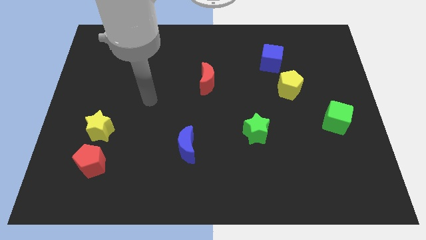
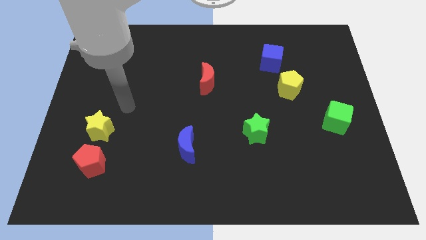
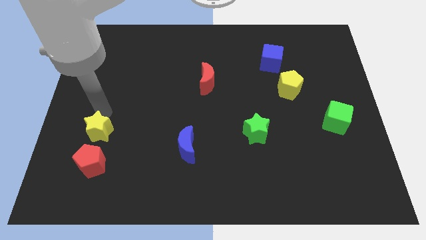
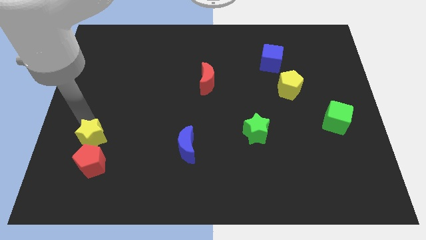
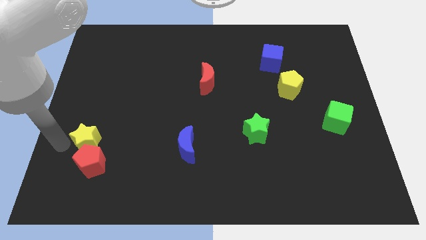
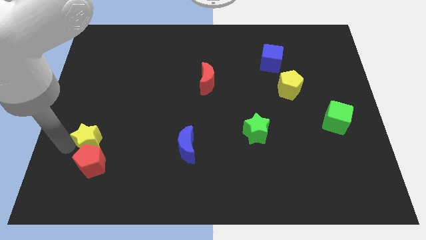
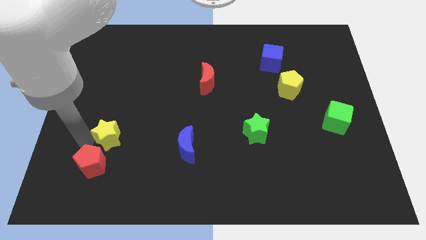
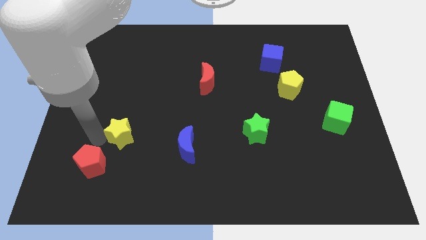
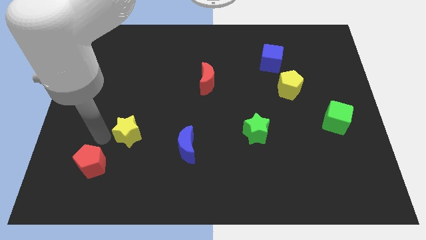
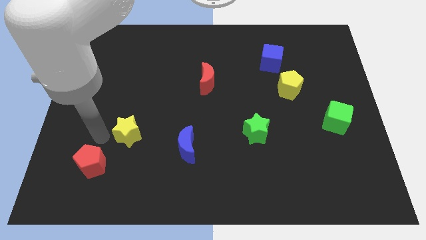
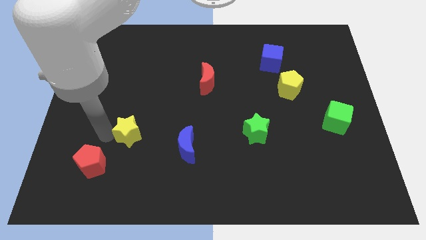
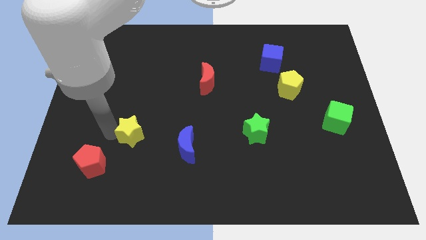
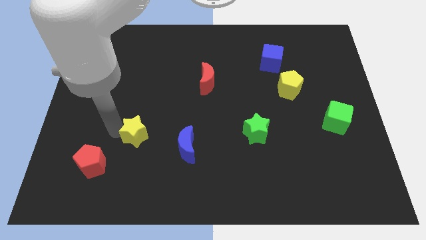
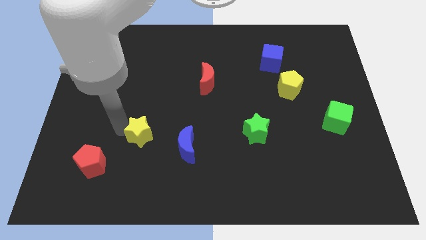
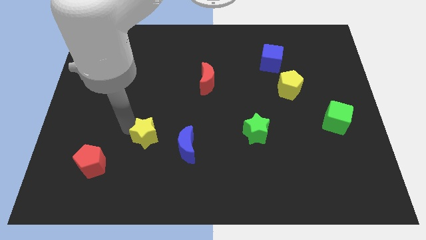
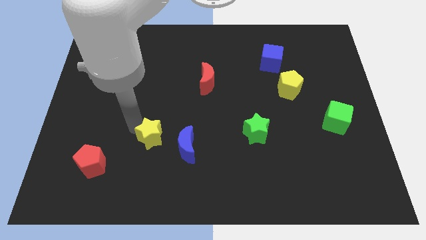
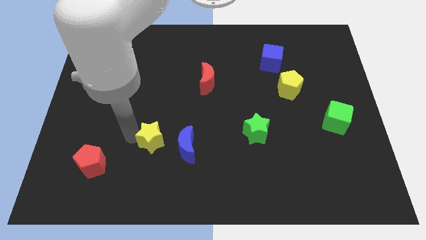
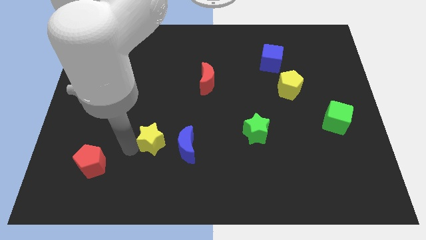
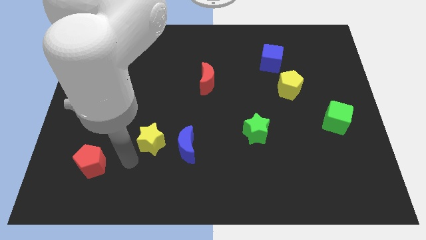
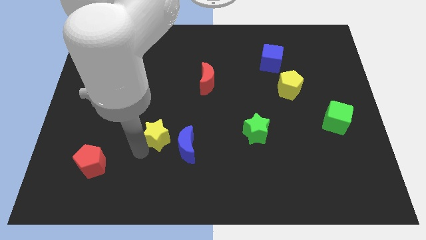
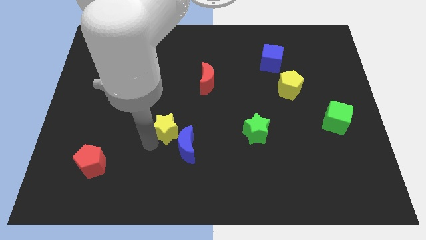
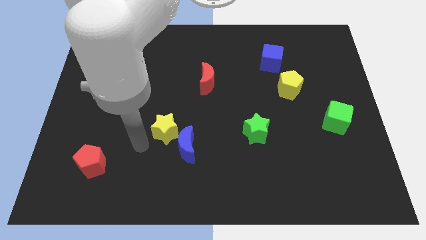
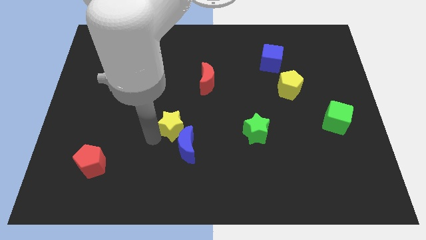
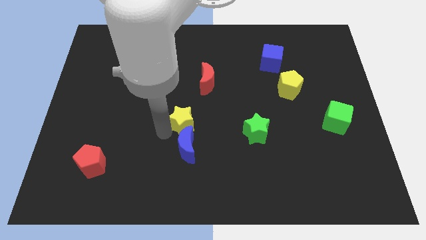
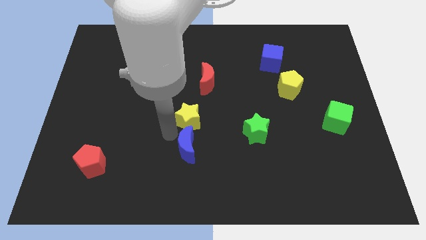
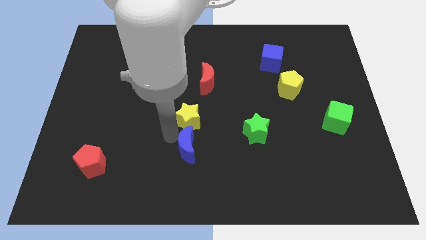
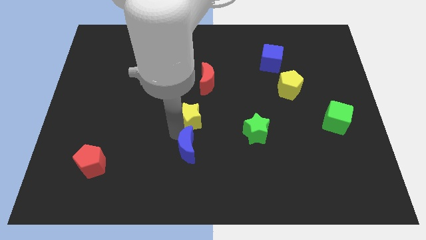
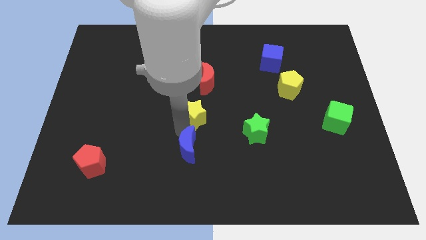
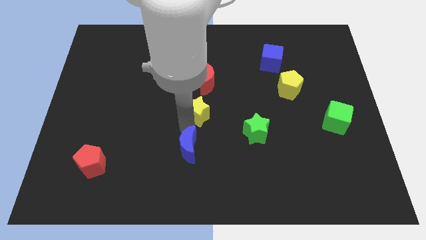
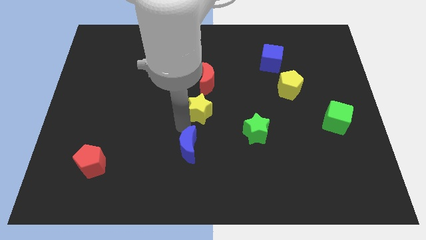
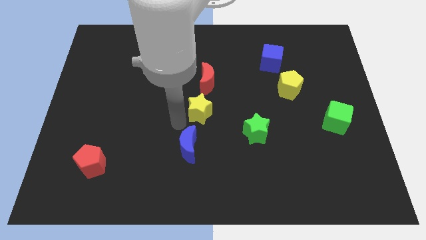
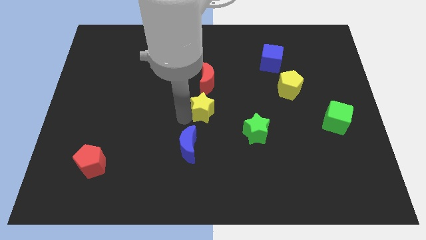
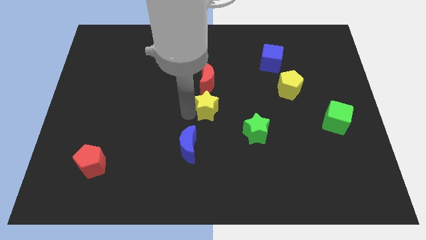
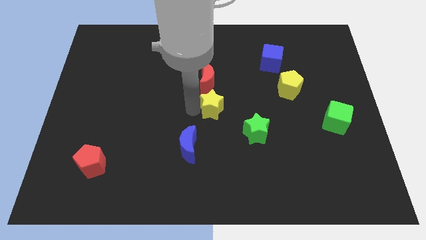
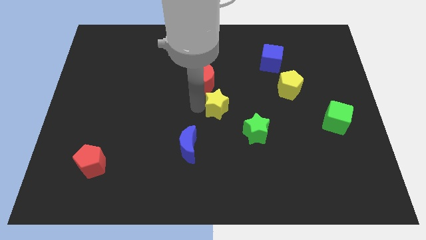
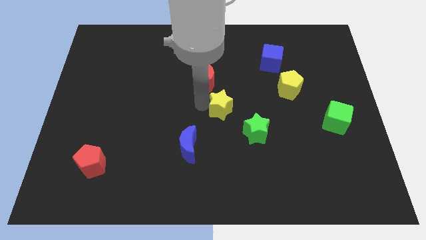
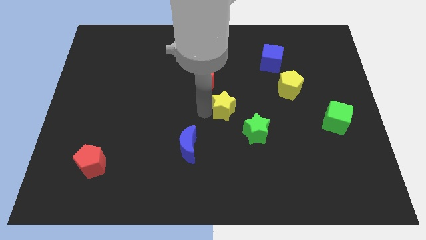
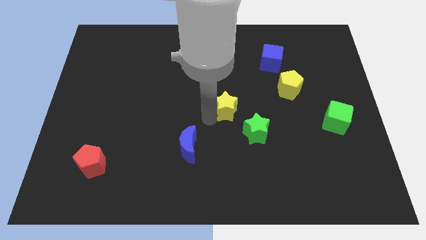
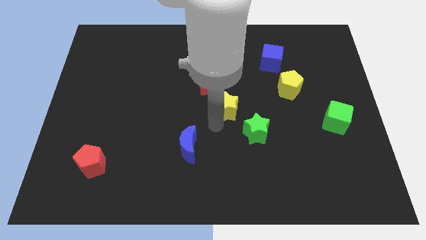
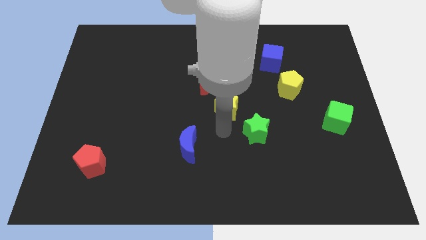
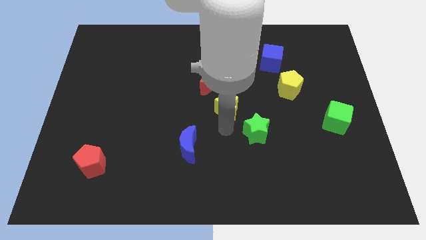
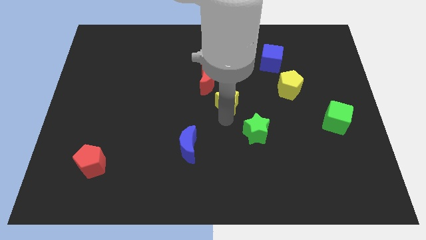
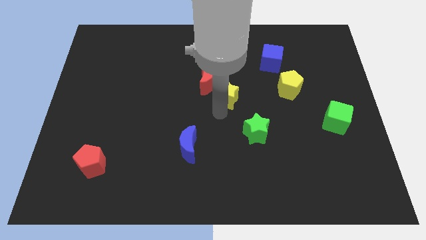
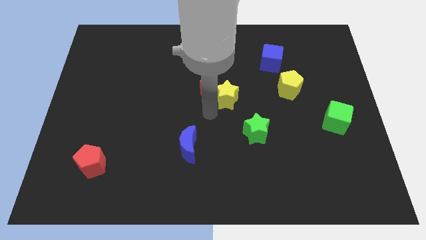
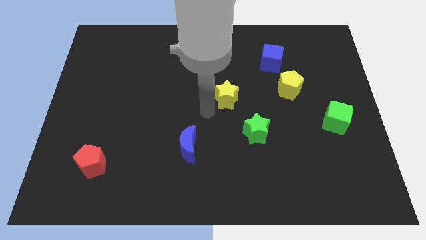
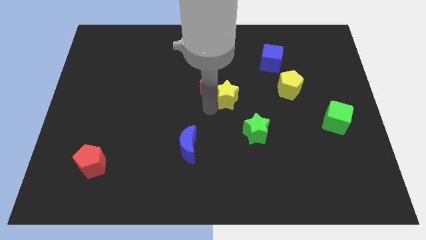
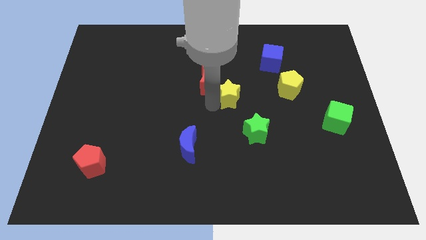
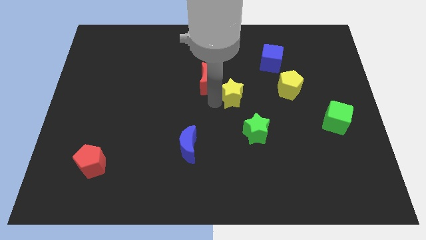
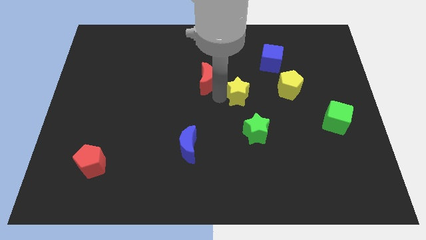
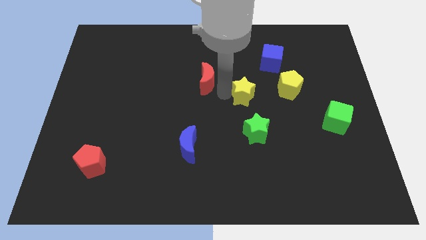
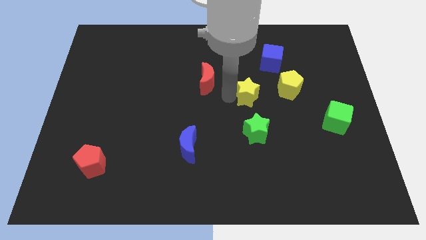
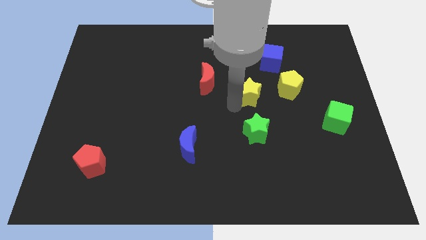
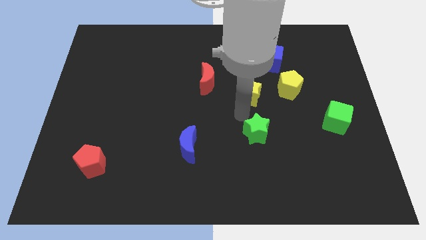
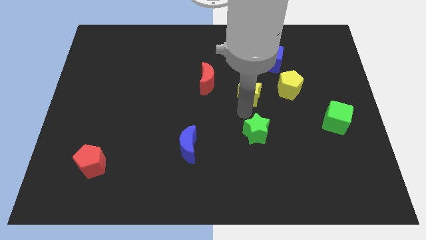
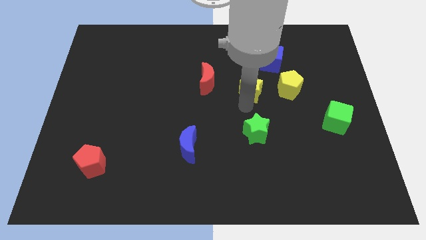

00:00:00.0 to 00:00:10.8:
put the yellow star to the bottom left side of the blue cube

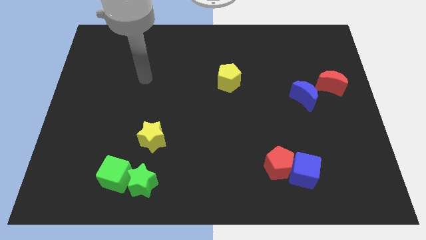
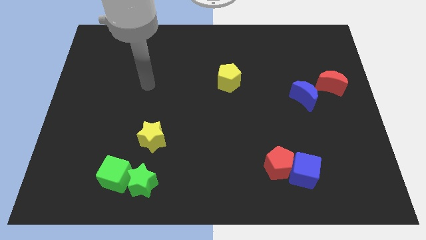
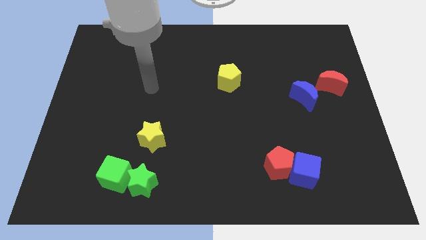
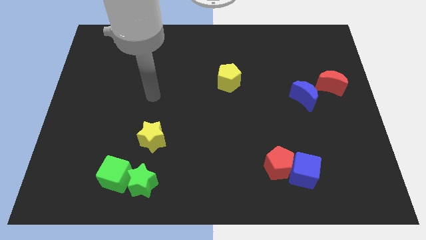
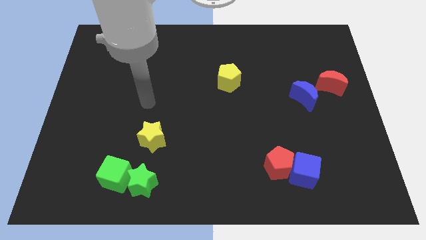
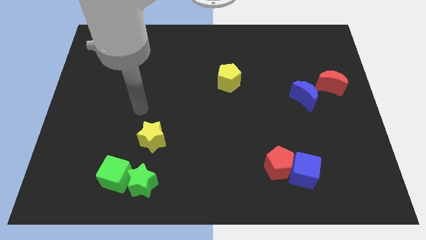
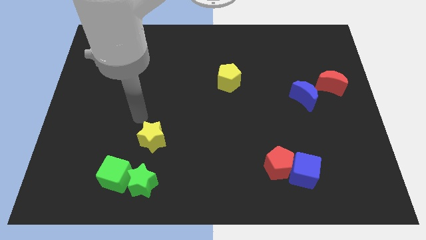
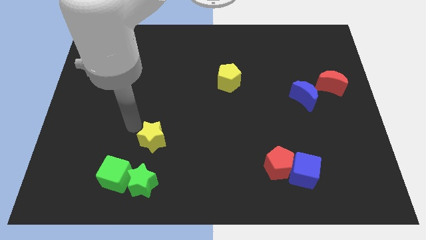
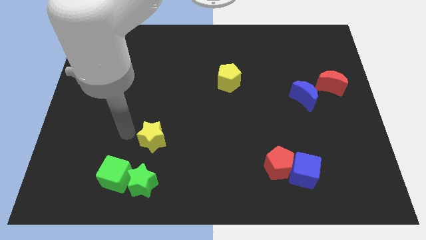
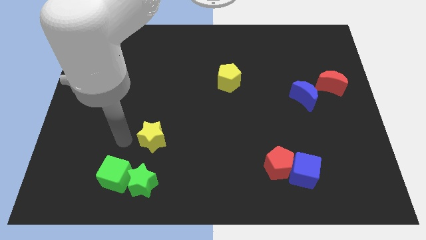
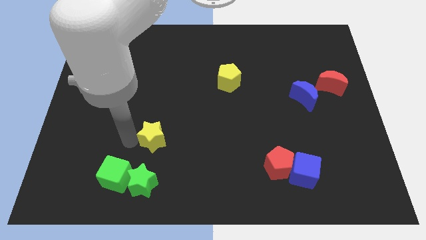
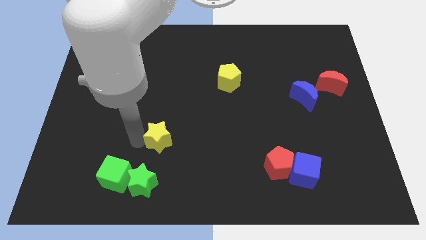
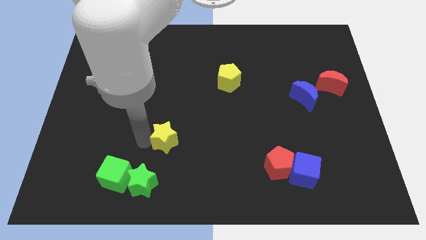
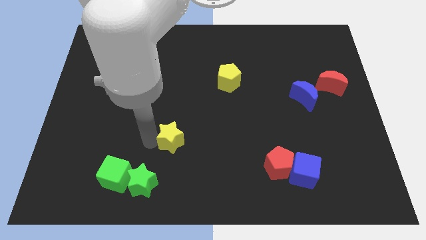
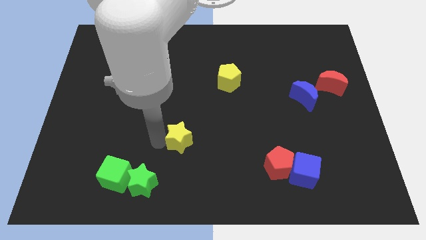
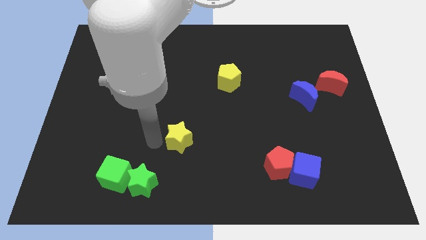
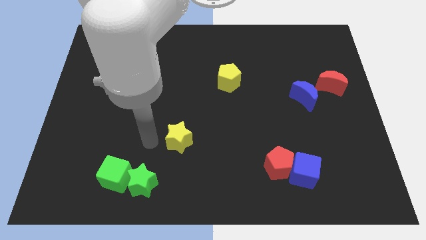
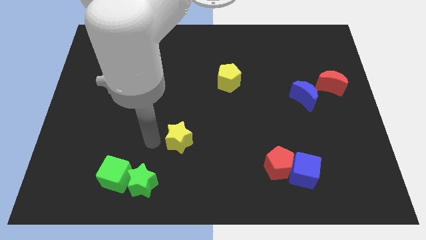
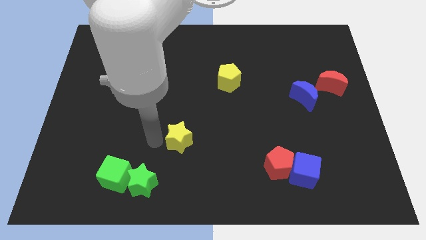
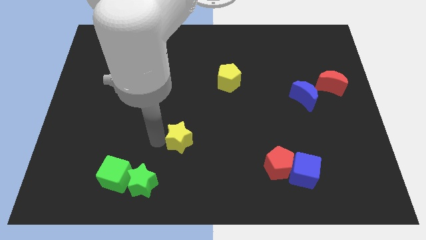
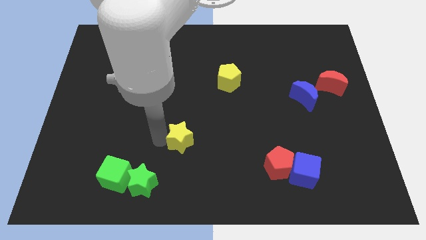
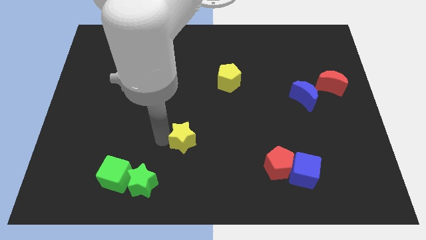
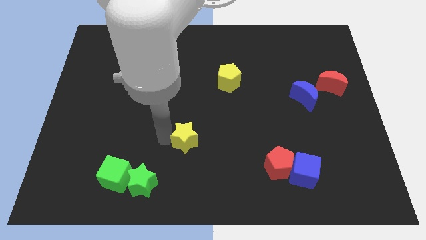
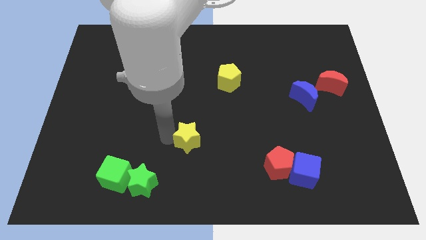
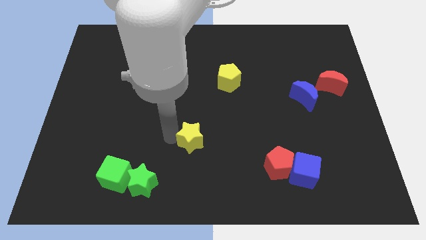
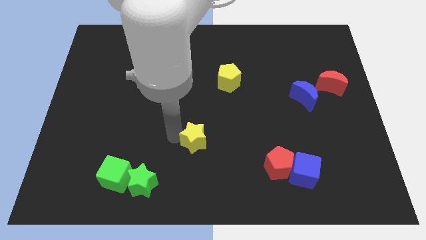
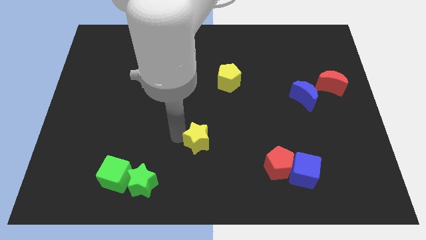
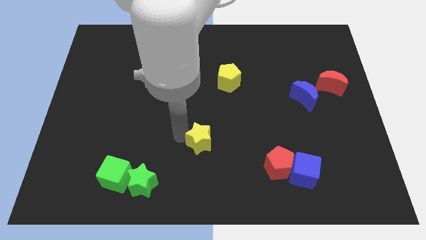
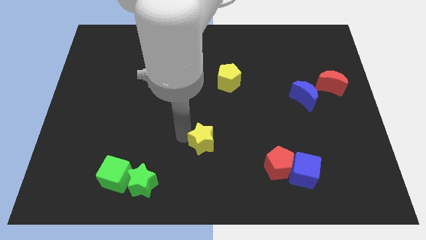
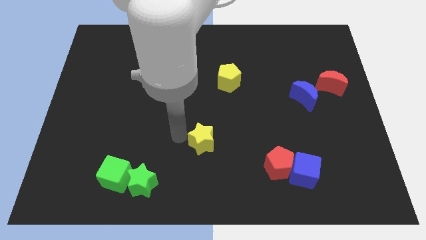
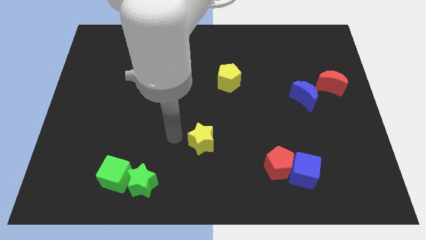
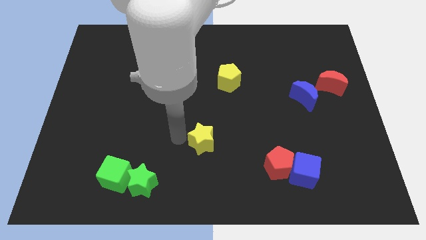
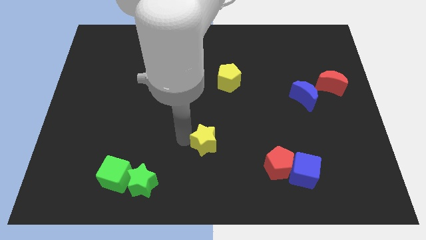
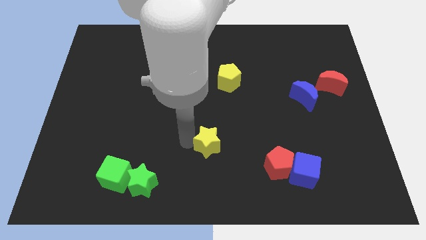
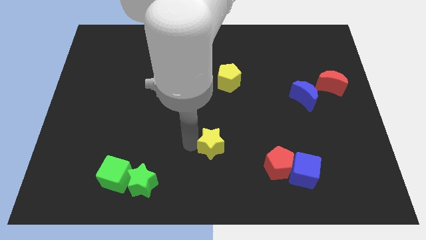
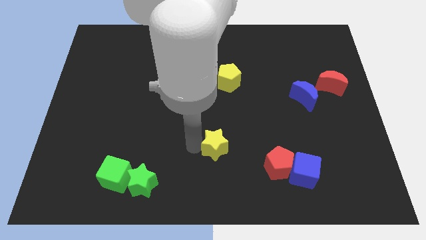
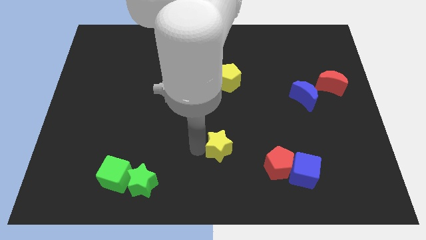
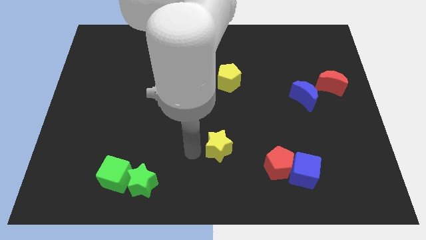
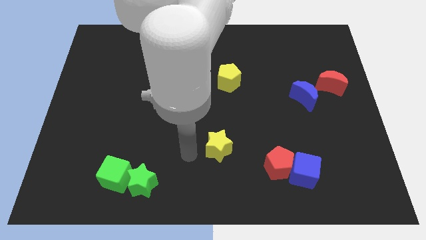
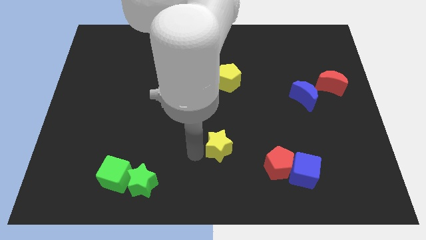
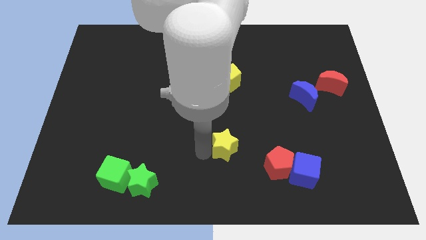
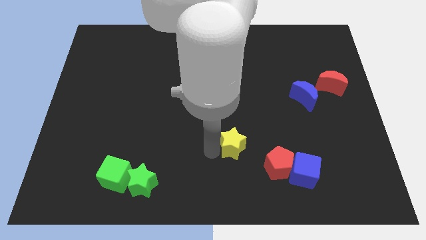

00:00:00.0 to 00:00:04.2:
push the yellow star to the top left of the red pentagon
